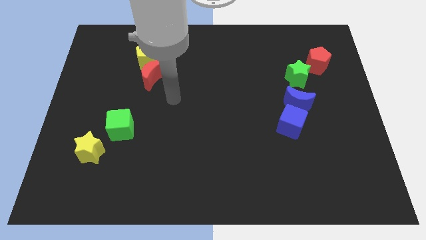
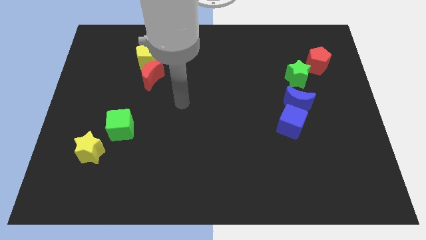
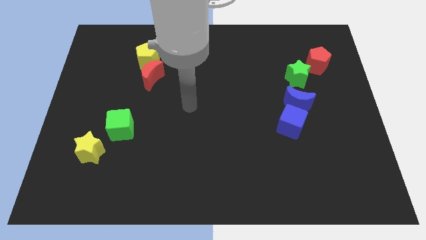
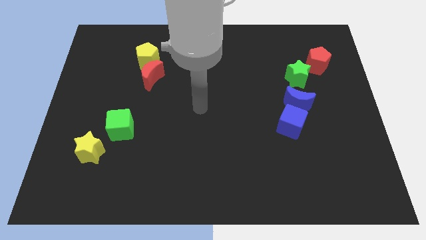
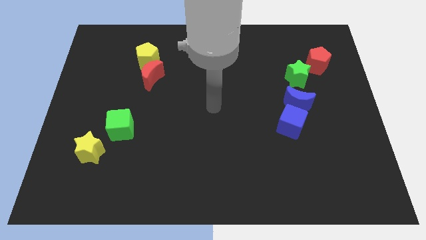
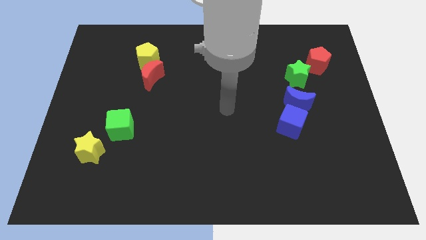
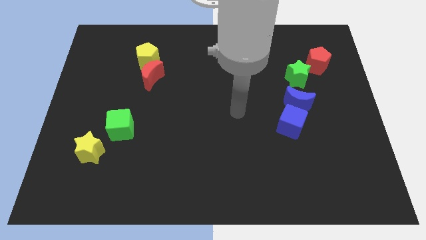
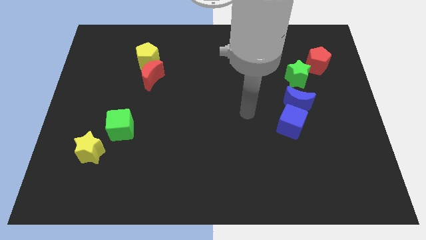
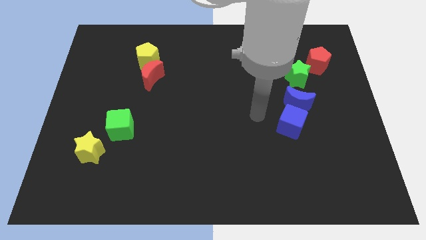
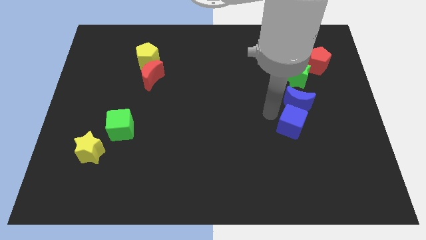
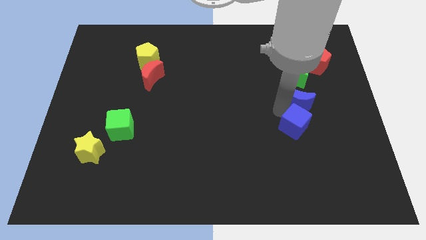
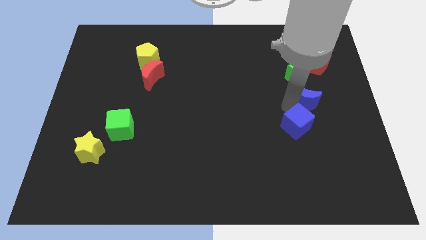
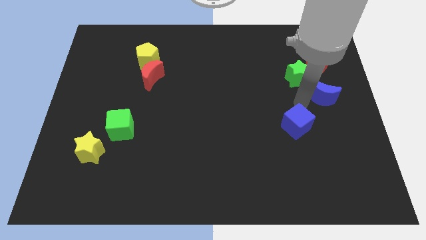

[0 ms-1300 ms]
pull the blue cube apart from the blue moon

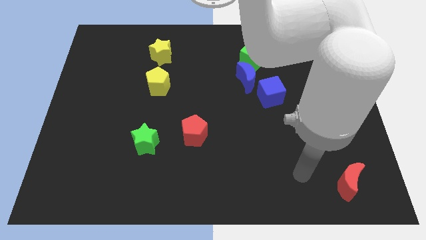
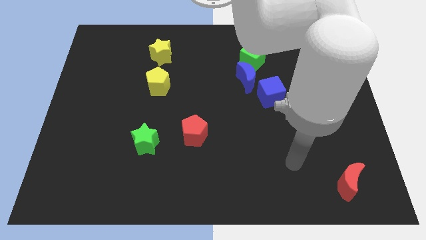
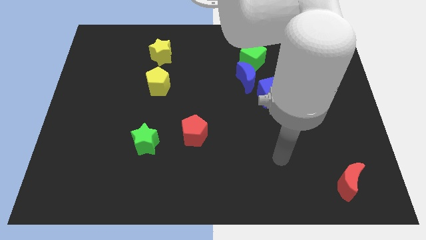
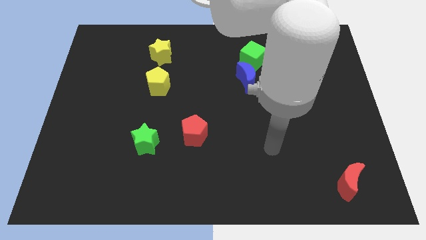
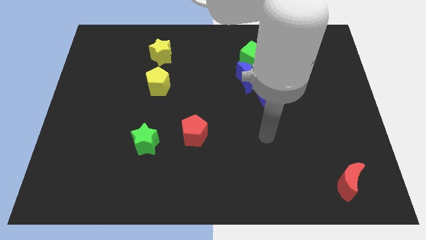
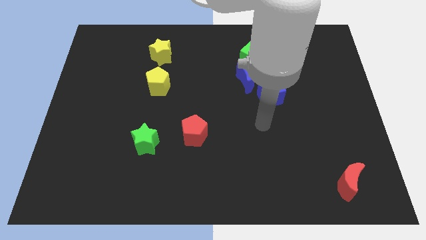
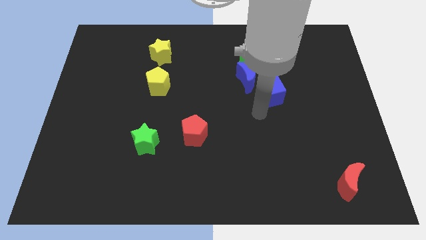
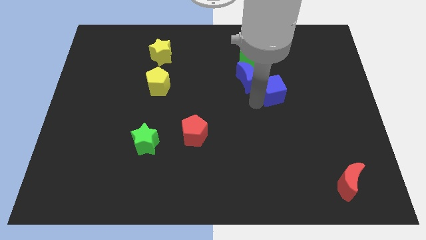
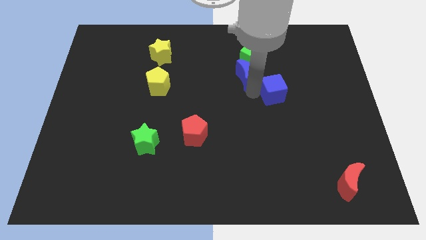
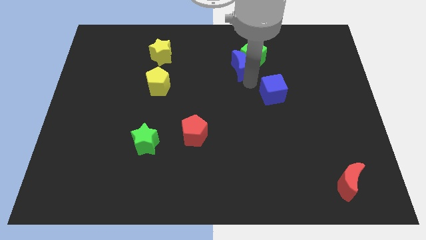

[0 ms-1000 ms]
separate the blue cube from the blue moon

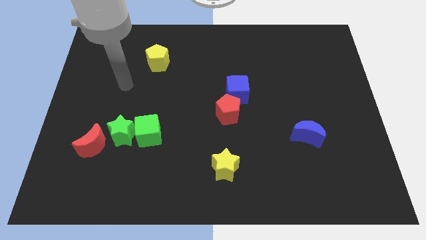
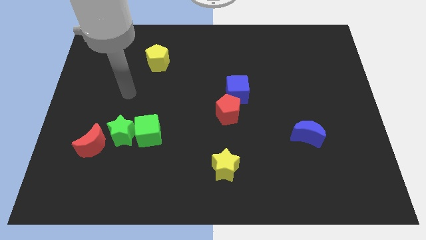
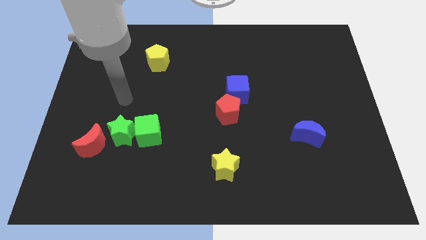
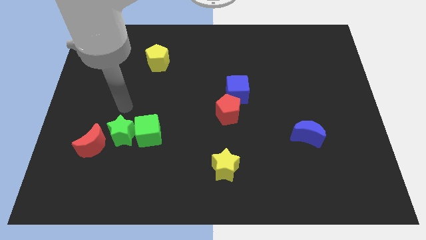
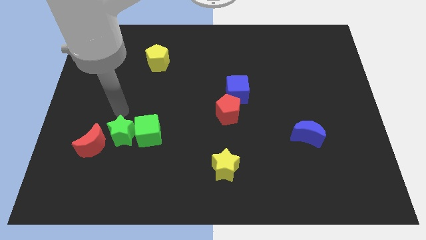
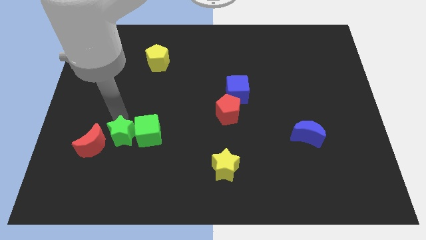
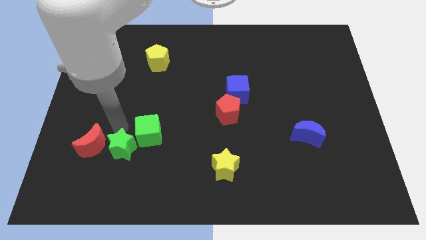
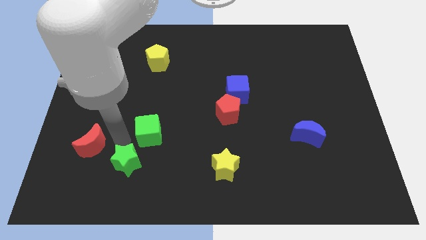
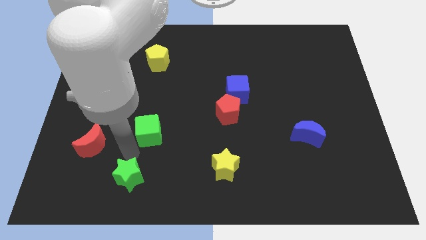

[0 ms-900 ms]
pull the green cube apart from the green star

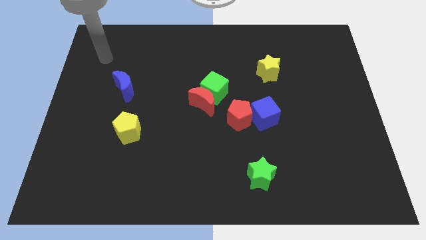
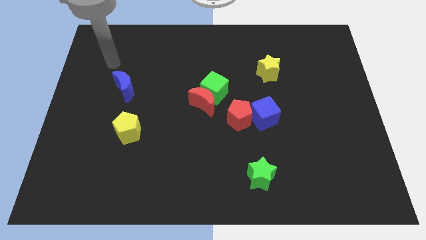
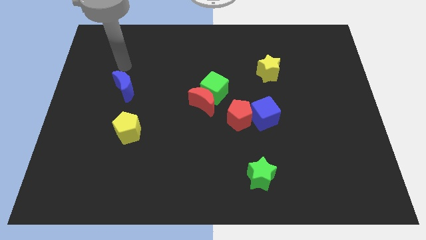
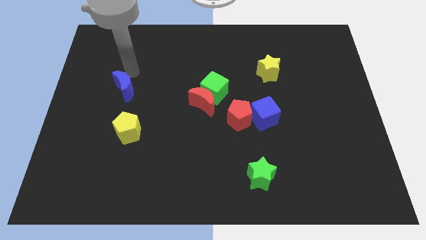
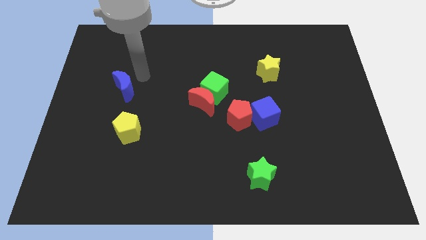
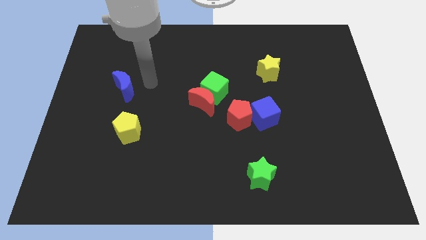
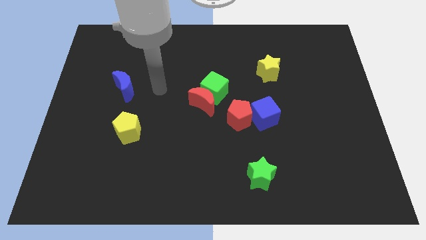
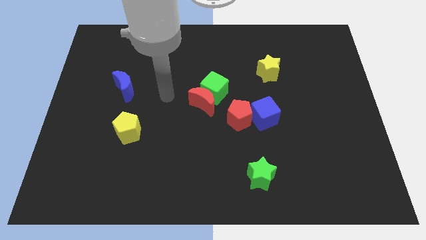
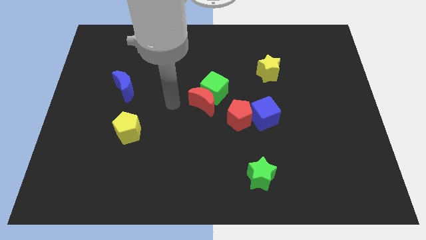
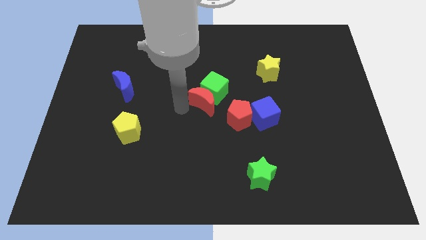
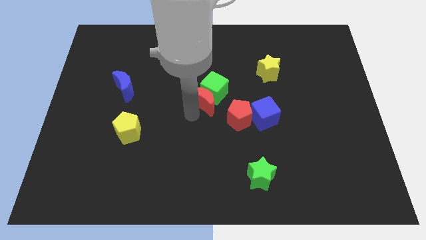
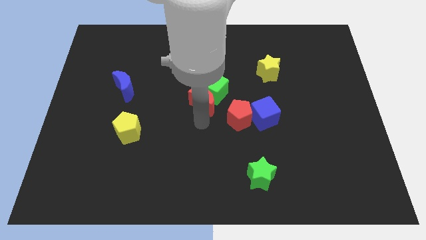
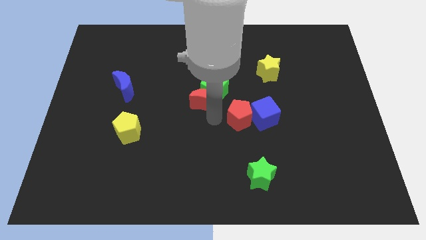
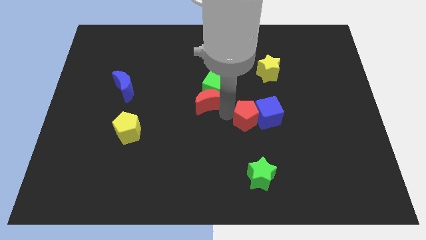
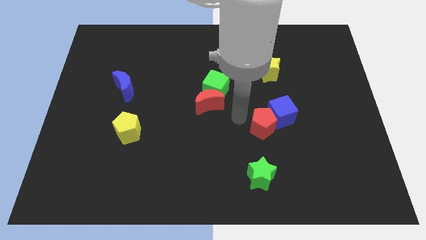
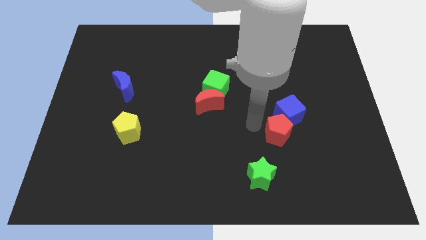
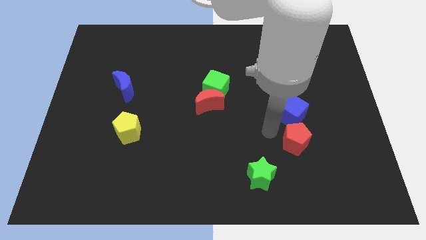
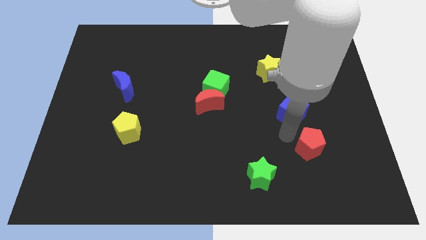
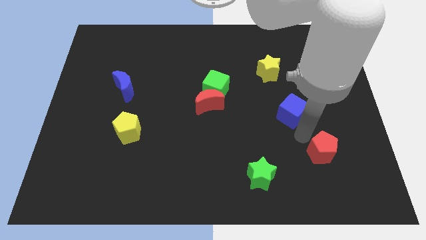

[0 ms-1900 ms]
move the blue cube away from the red pentagon

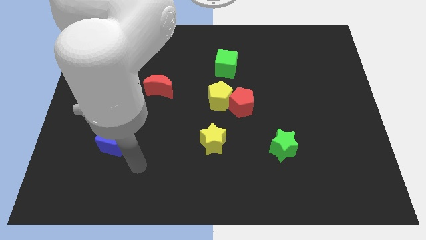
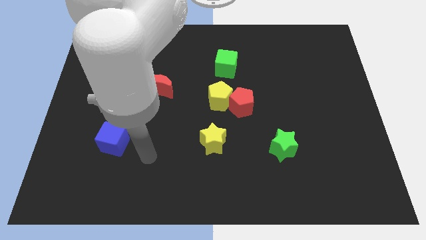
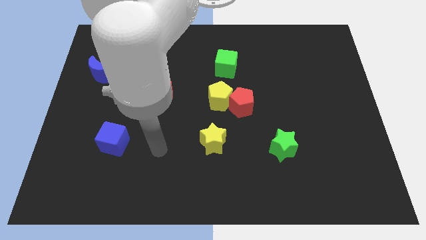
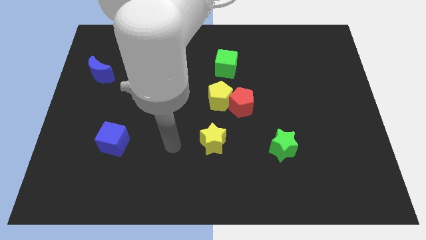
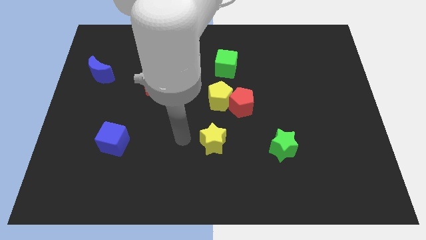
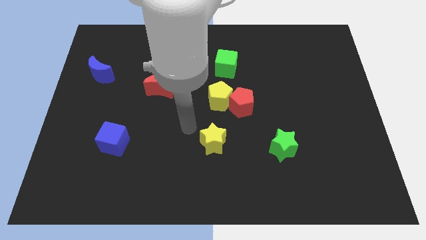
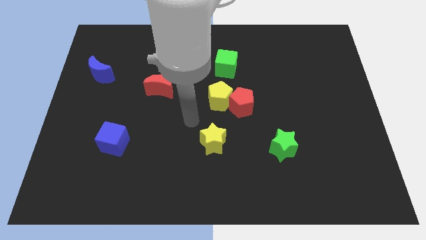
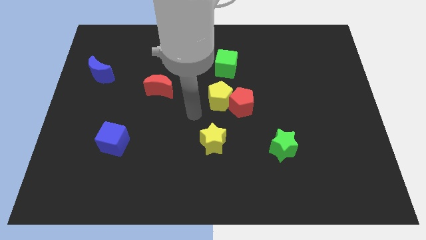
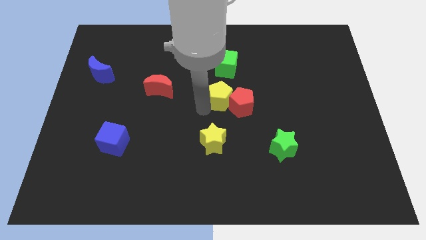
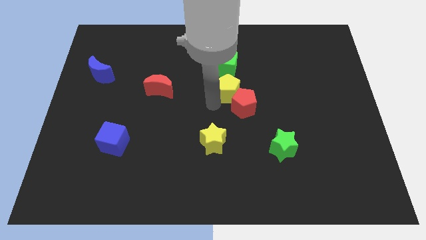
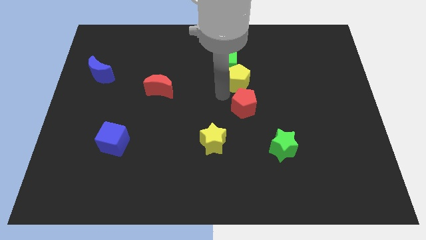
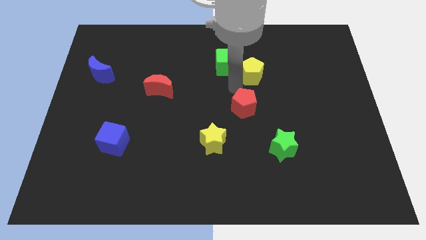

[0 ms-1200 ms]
separate the red pentagon from the yellow pentagon

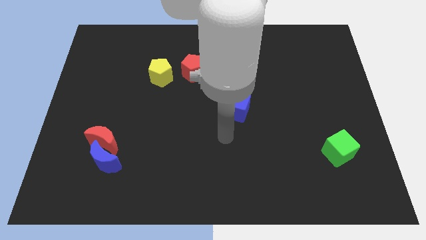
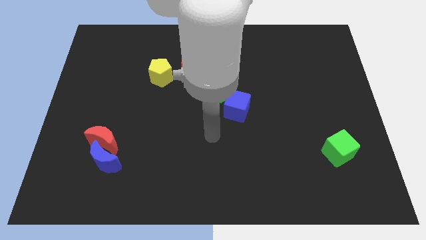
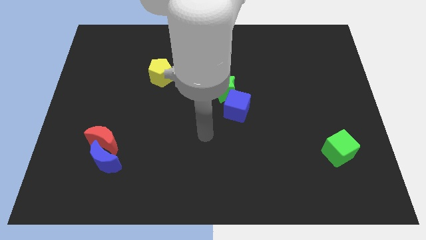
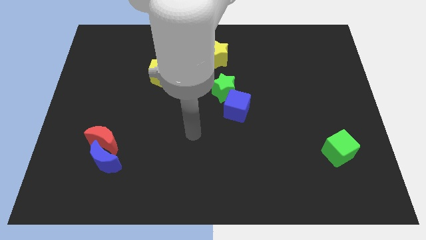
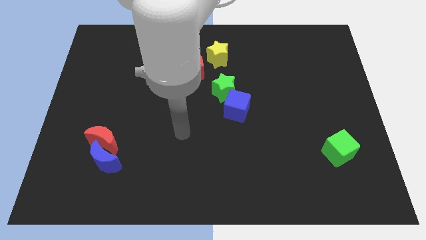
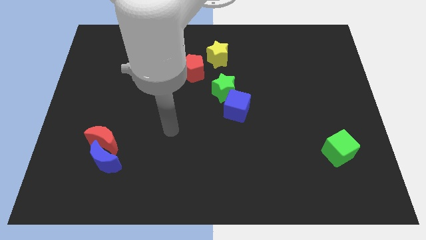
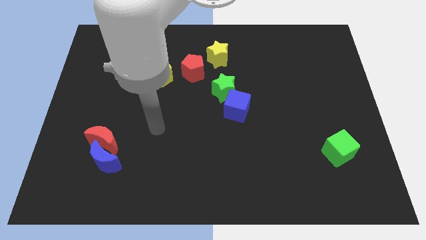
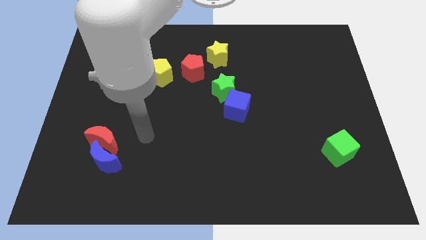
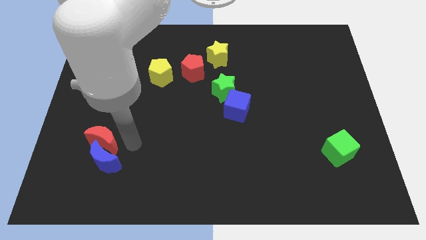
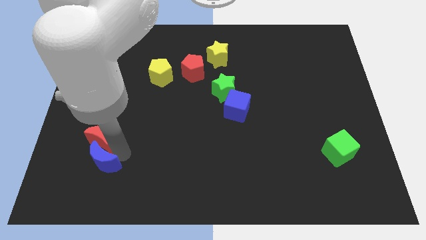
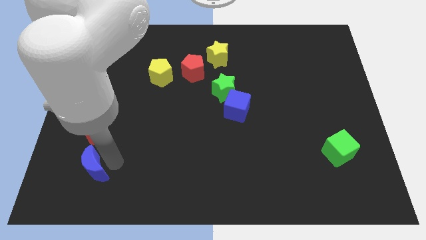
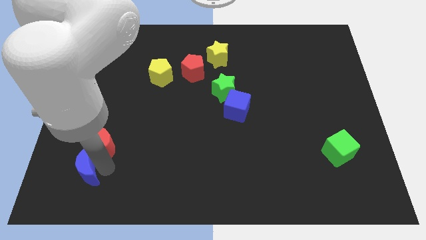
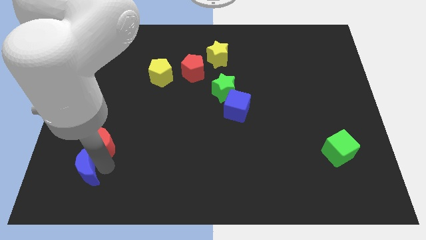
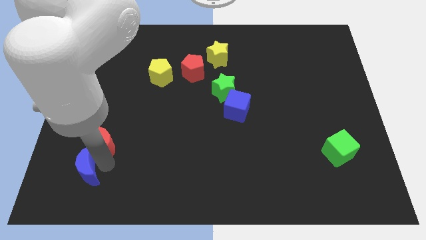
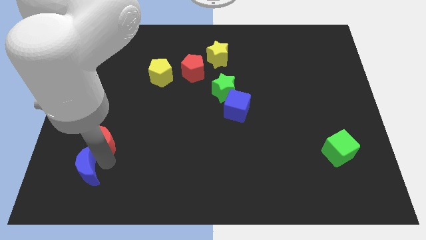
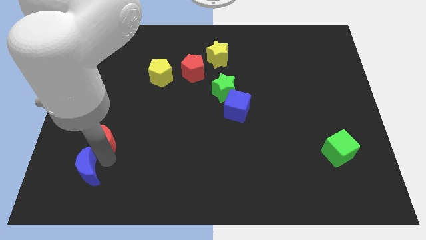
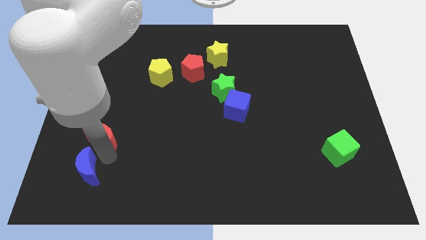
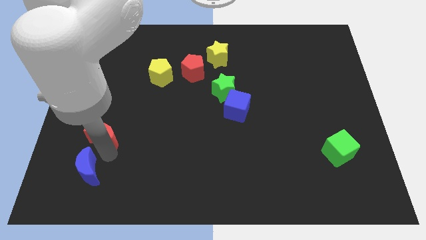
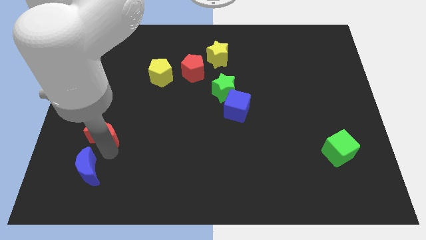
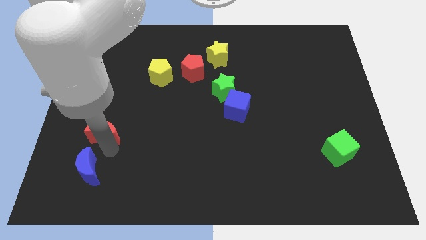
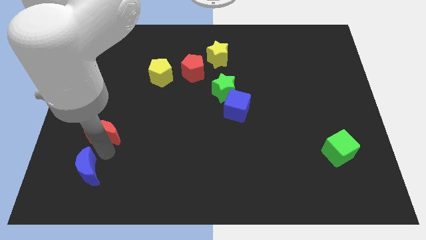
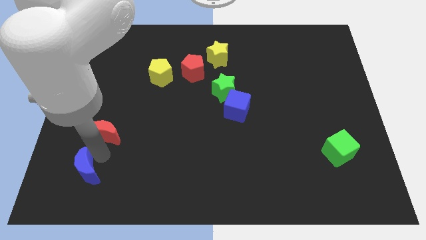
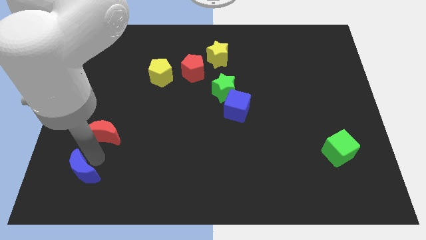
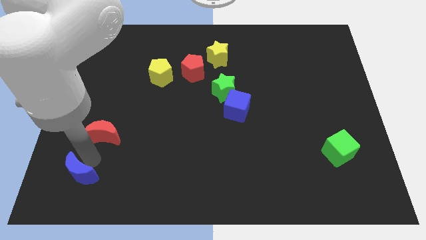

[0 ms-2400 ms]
pull the red moon apart from the blue moon

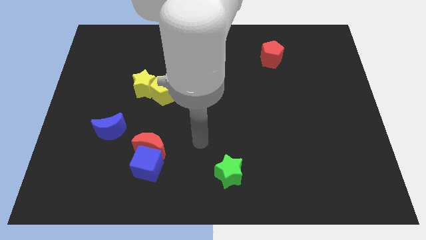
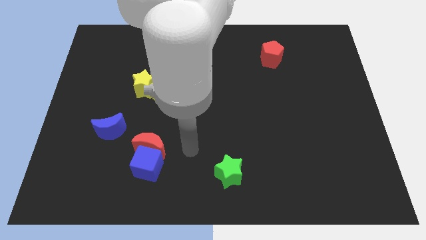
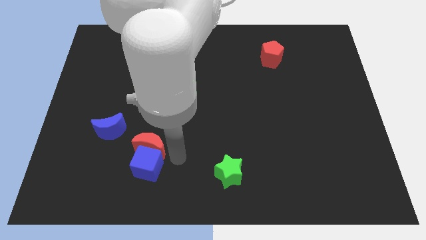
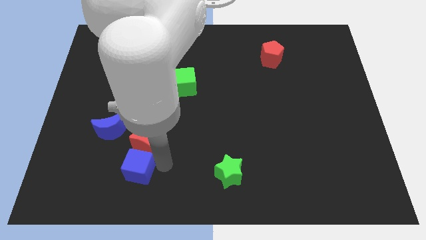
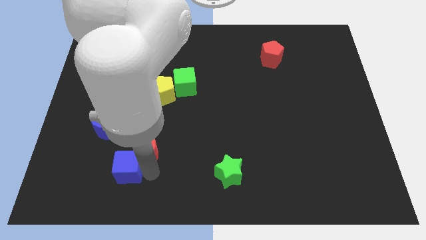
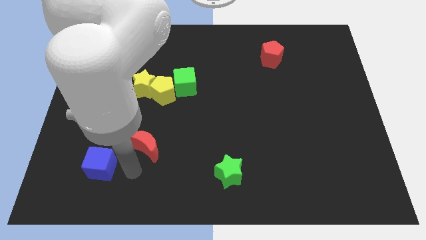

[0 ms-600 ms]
move the red moon away from the blue cube

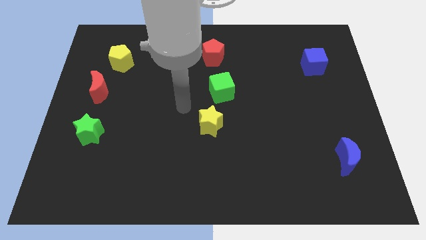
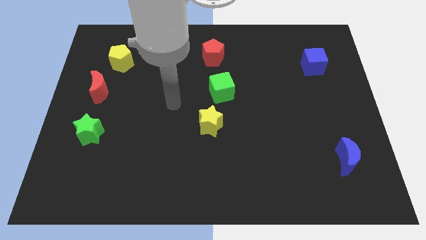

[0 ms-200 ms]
pull the red moon apart from the yellow pentagon
